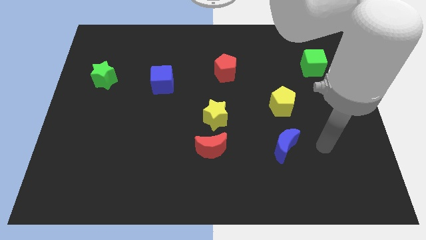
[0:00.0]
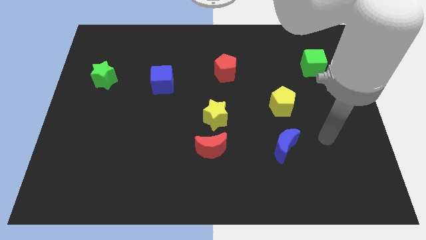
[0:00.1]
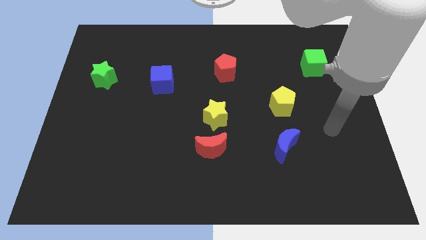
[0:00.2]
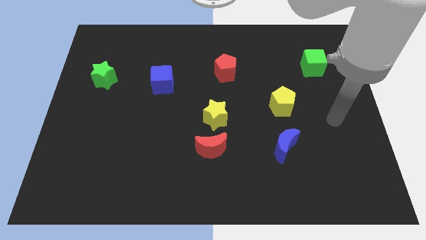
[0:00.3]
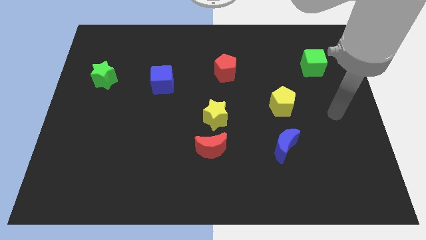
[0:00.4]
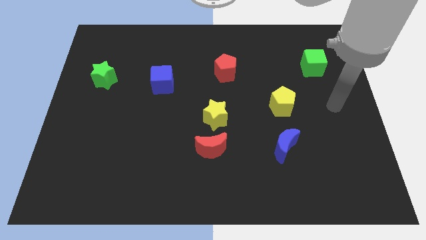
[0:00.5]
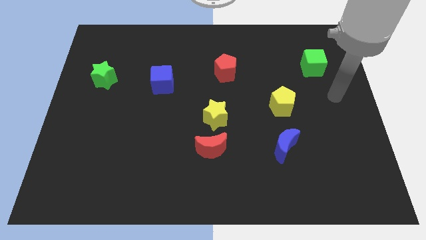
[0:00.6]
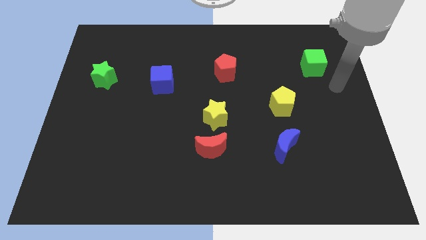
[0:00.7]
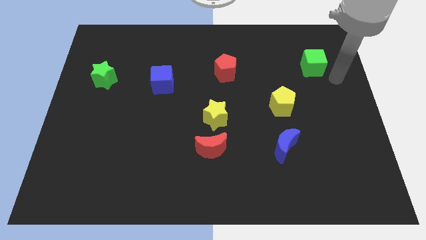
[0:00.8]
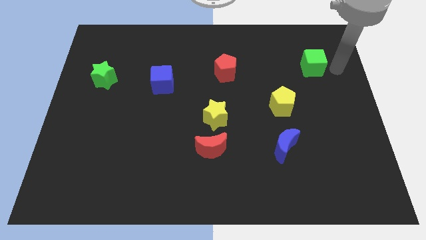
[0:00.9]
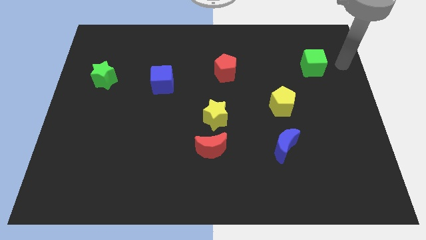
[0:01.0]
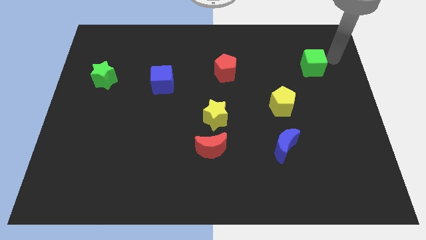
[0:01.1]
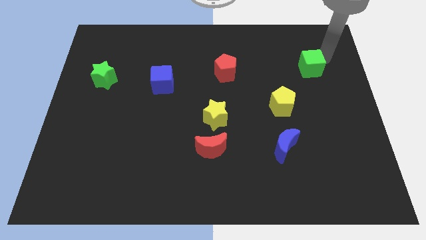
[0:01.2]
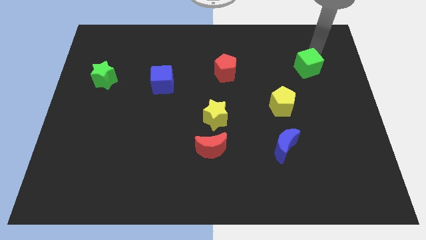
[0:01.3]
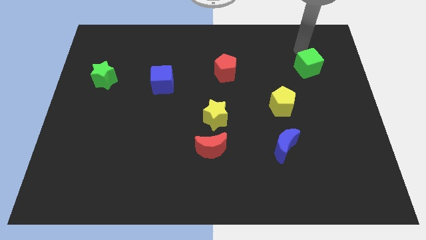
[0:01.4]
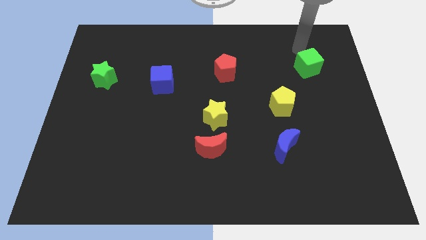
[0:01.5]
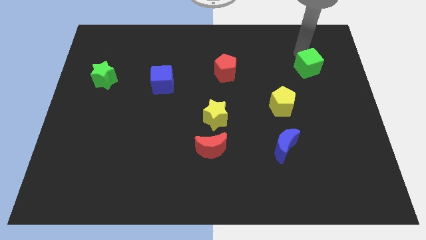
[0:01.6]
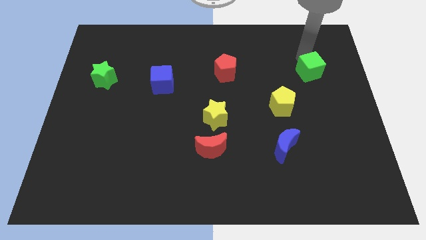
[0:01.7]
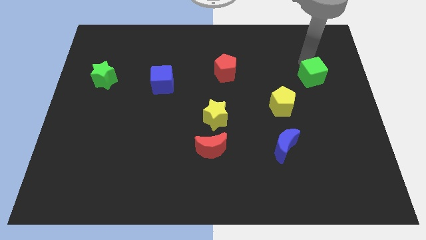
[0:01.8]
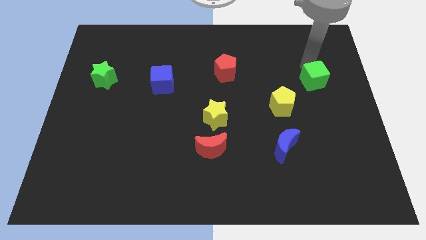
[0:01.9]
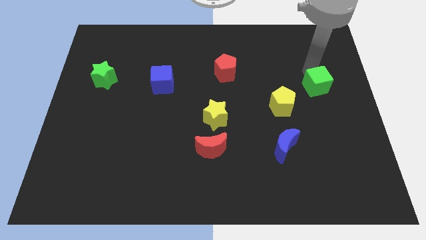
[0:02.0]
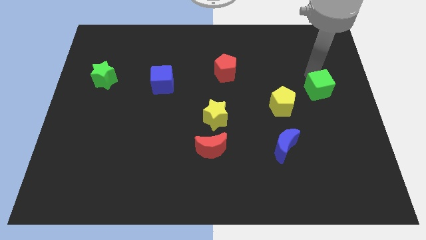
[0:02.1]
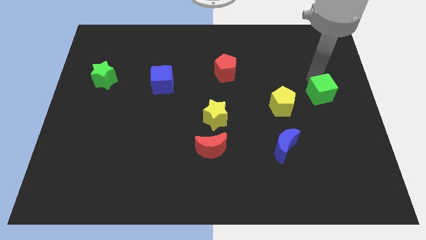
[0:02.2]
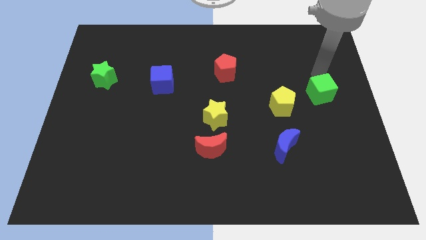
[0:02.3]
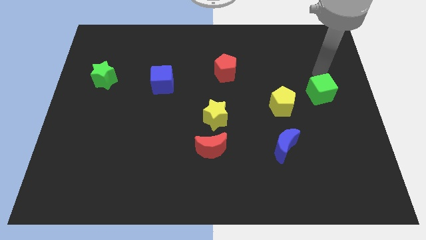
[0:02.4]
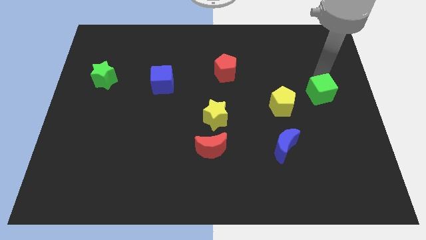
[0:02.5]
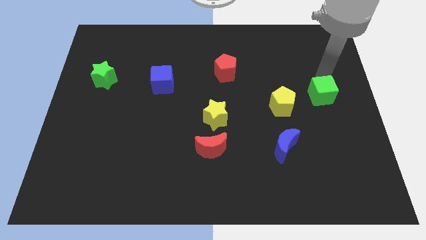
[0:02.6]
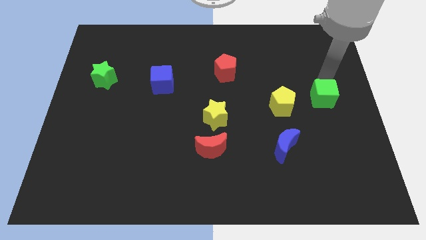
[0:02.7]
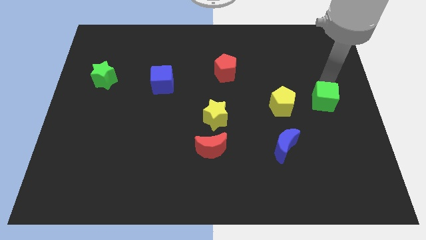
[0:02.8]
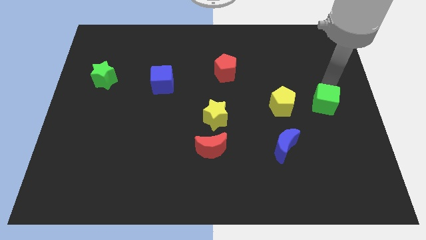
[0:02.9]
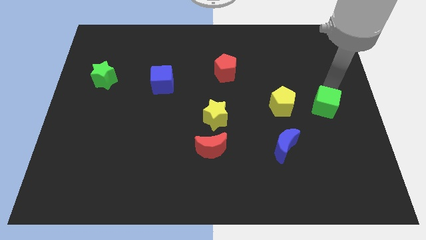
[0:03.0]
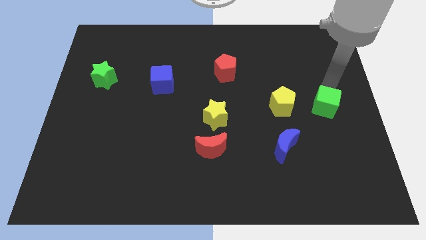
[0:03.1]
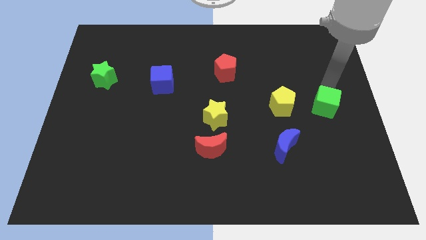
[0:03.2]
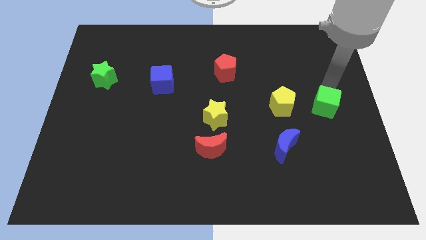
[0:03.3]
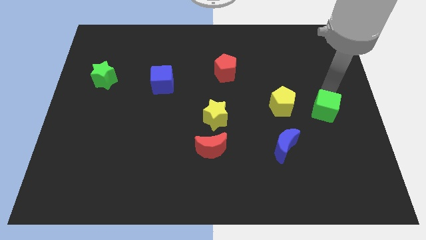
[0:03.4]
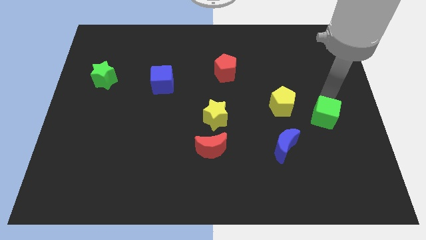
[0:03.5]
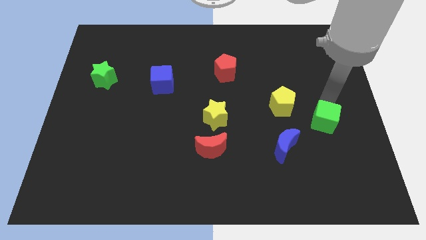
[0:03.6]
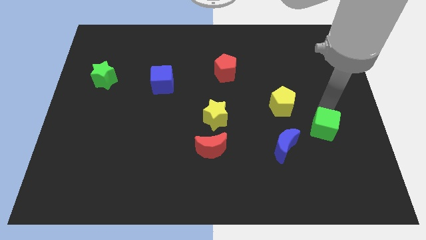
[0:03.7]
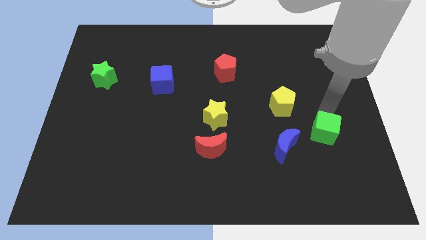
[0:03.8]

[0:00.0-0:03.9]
move the green cube downwards

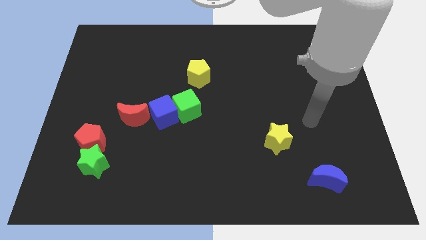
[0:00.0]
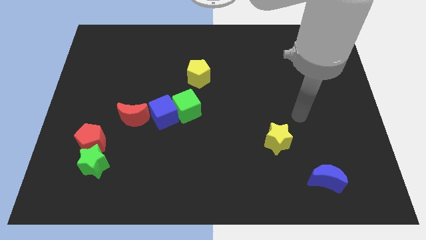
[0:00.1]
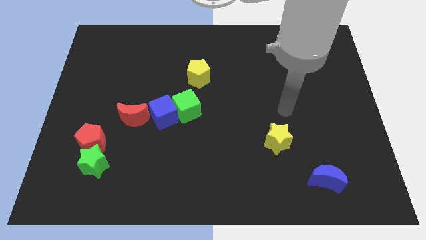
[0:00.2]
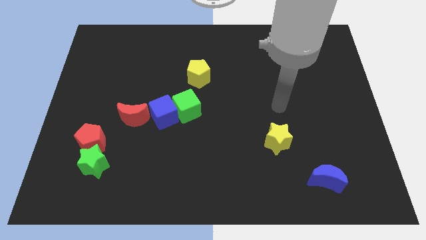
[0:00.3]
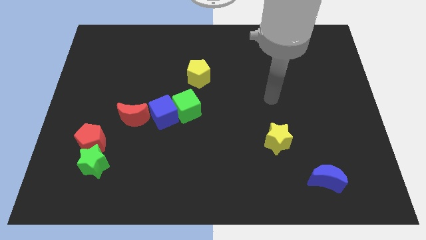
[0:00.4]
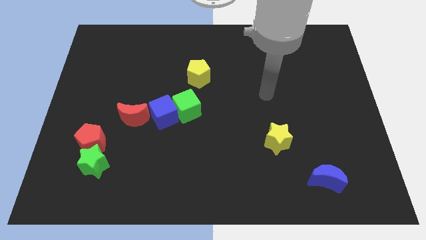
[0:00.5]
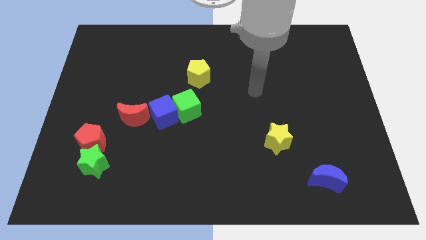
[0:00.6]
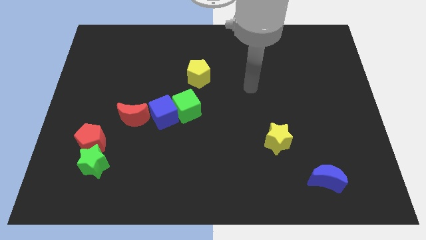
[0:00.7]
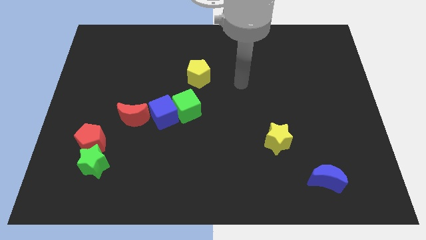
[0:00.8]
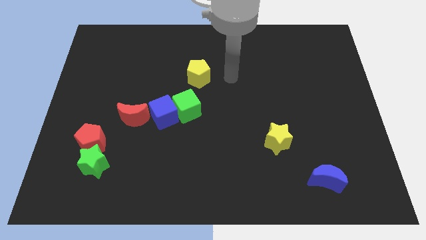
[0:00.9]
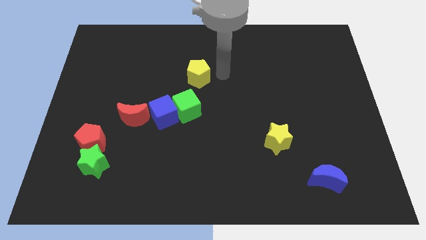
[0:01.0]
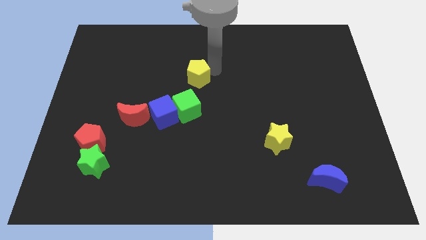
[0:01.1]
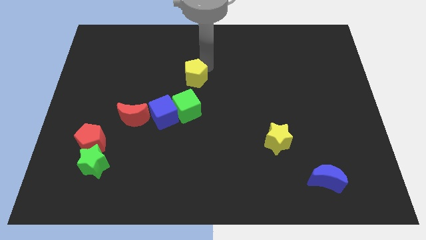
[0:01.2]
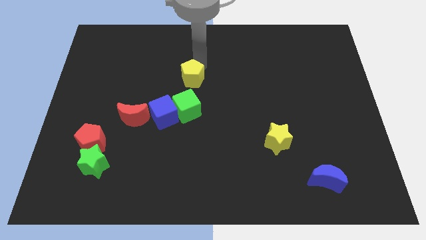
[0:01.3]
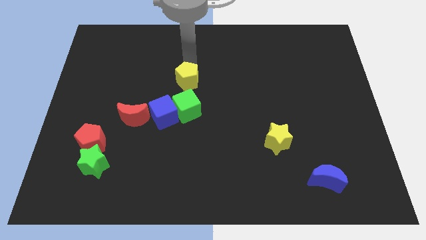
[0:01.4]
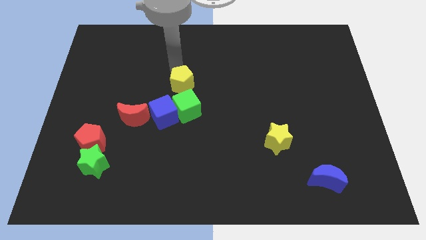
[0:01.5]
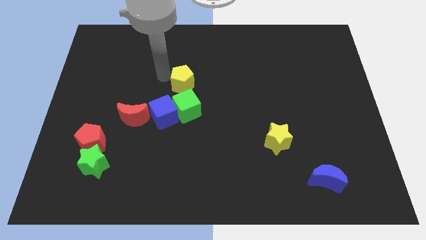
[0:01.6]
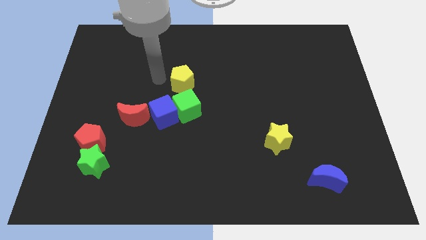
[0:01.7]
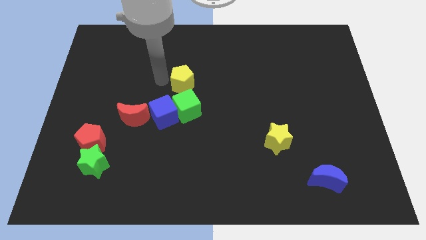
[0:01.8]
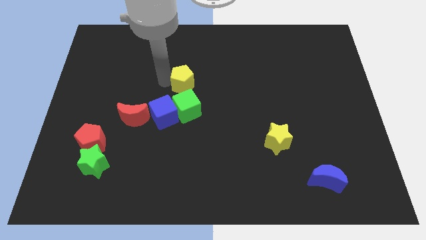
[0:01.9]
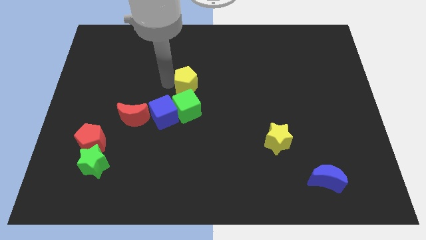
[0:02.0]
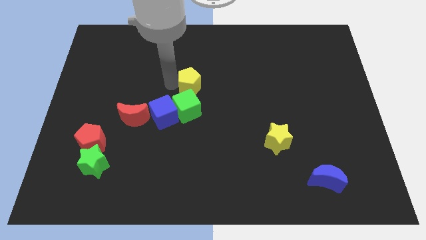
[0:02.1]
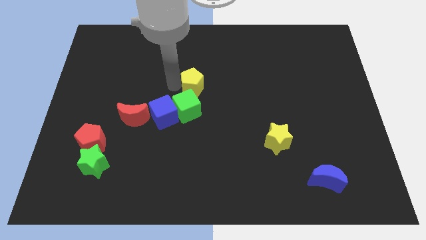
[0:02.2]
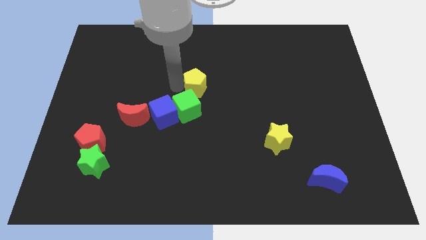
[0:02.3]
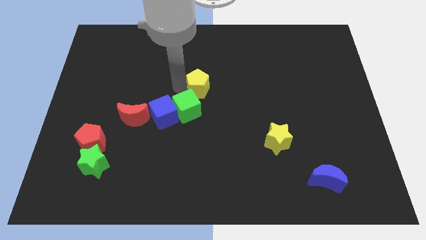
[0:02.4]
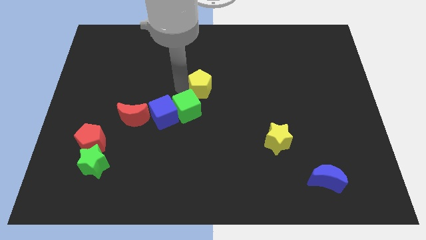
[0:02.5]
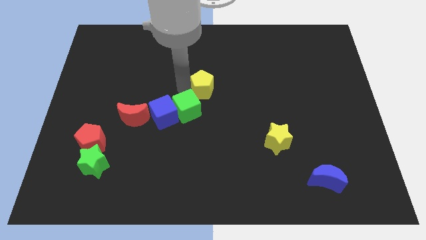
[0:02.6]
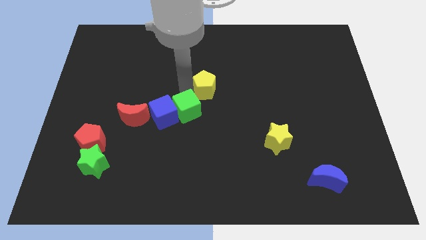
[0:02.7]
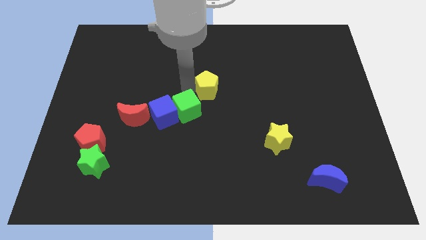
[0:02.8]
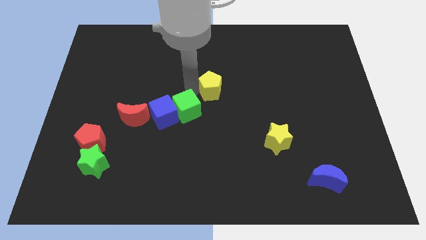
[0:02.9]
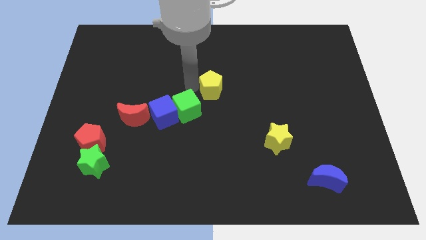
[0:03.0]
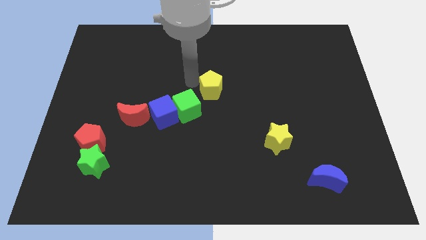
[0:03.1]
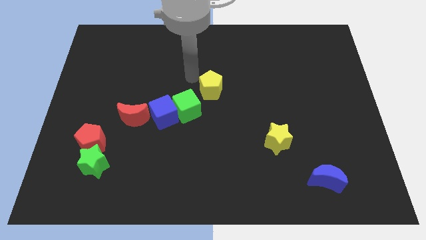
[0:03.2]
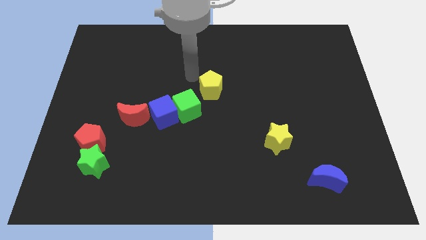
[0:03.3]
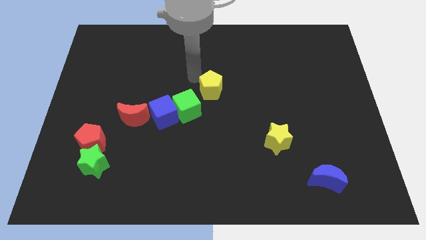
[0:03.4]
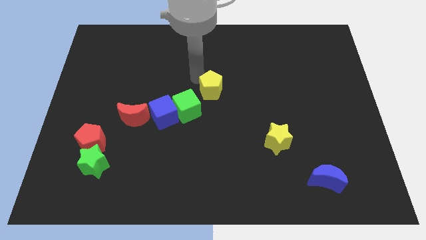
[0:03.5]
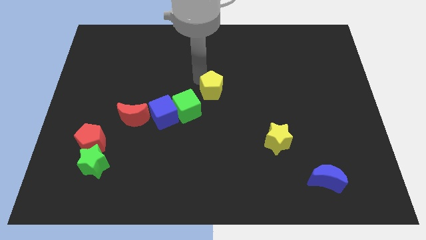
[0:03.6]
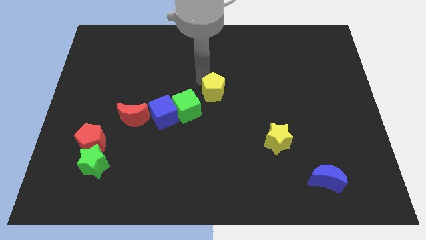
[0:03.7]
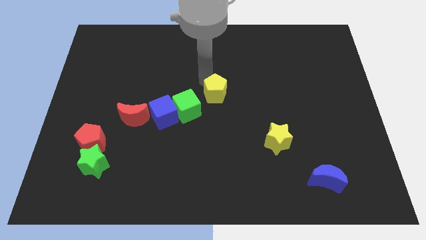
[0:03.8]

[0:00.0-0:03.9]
push the yellow pentagon diagonally down and to the right a bit

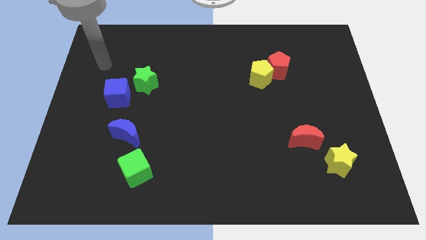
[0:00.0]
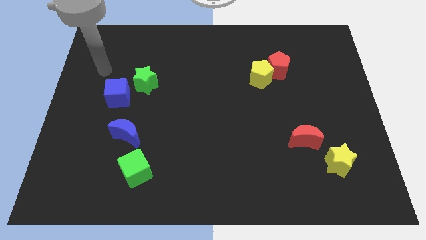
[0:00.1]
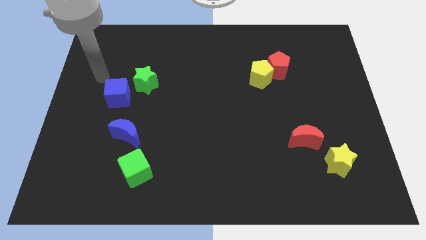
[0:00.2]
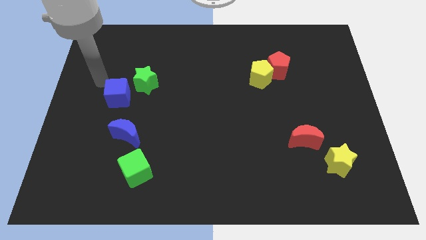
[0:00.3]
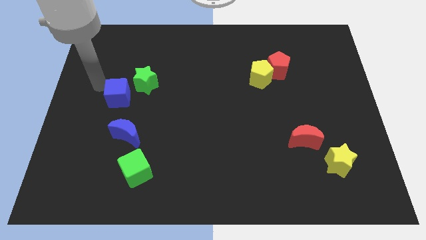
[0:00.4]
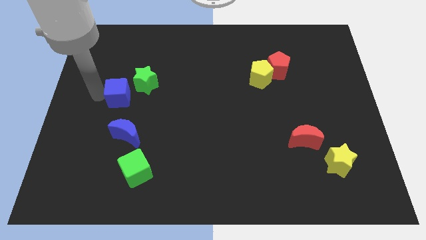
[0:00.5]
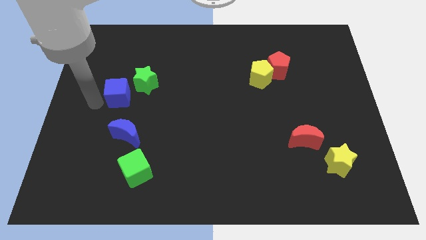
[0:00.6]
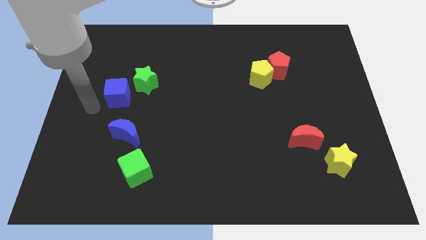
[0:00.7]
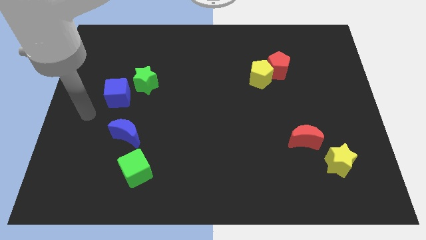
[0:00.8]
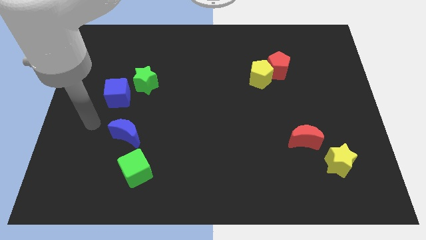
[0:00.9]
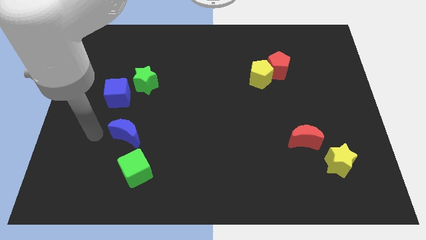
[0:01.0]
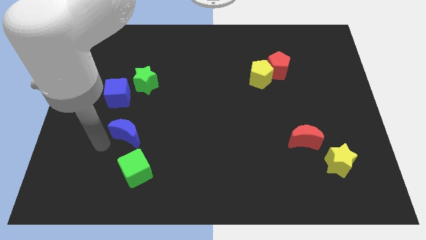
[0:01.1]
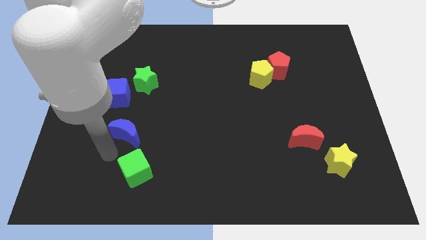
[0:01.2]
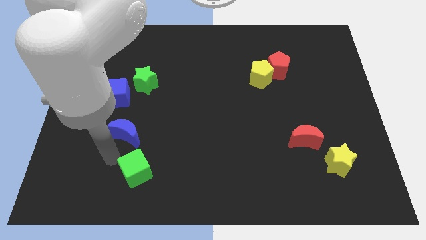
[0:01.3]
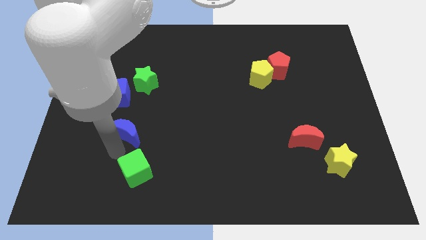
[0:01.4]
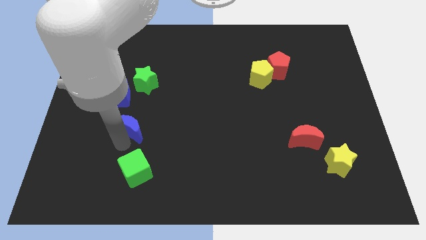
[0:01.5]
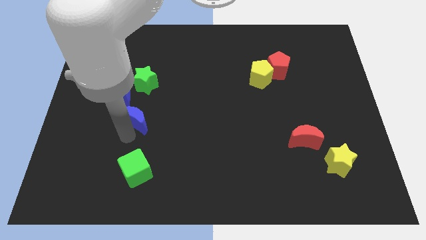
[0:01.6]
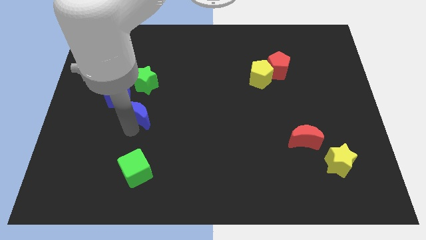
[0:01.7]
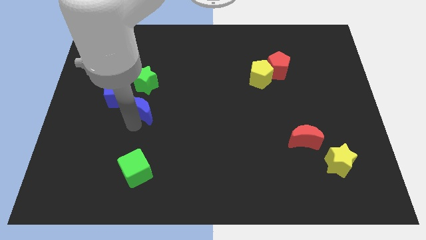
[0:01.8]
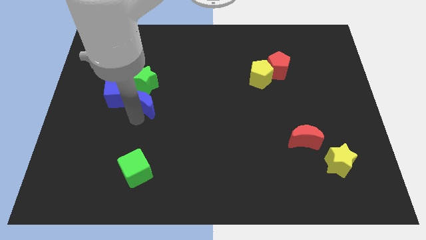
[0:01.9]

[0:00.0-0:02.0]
push the blue moon upwards a little bit
